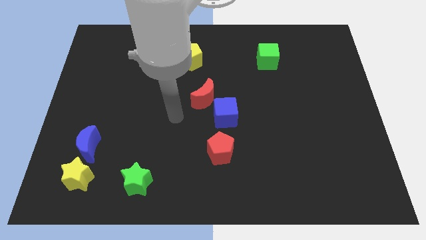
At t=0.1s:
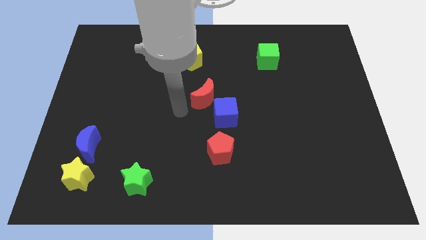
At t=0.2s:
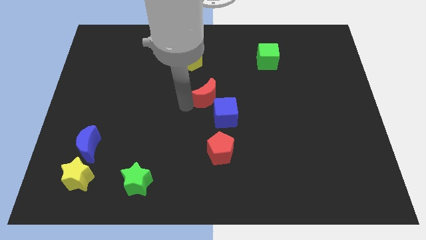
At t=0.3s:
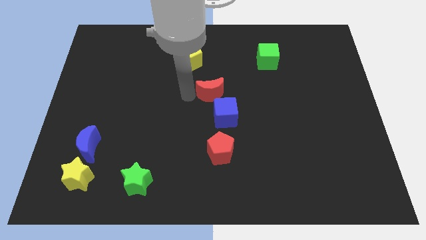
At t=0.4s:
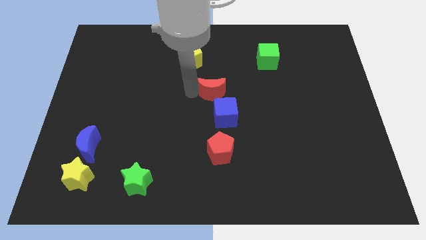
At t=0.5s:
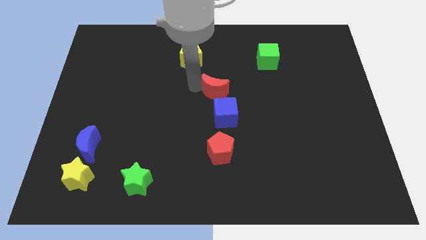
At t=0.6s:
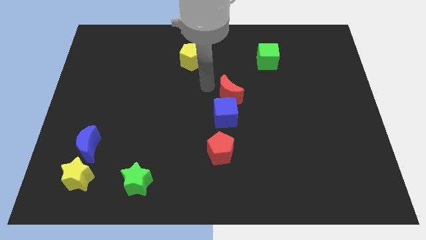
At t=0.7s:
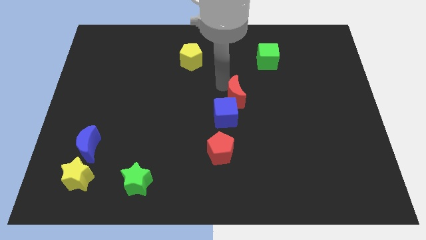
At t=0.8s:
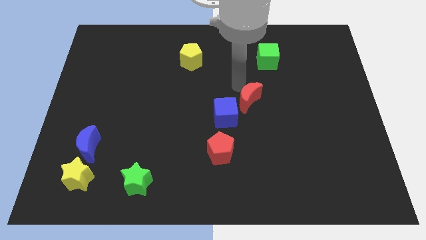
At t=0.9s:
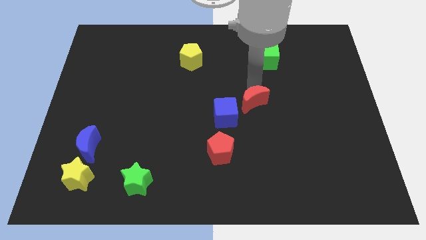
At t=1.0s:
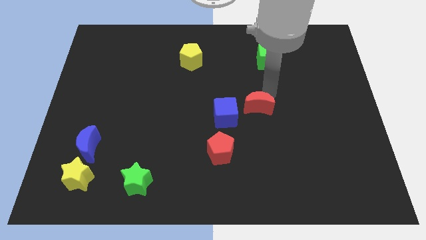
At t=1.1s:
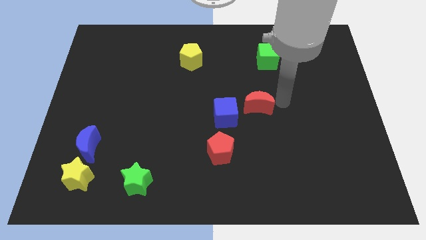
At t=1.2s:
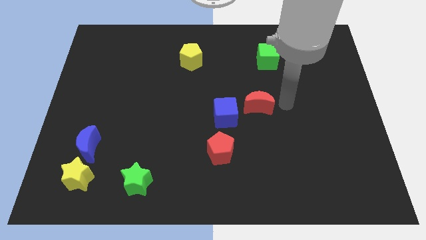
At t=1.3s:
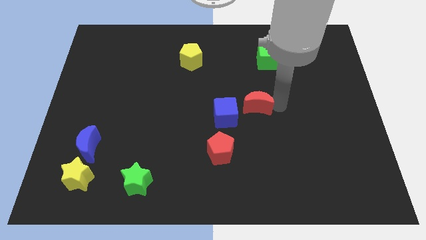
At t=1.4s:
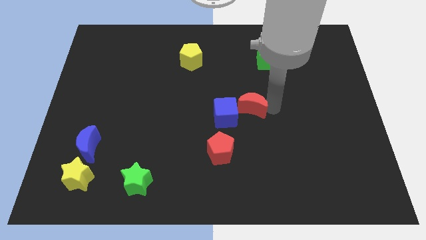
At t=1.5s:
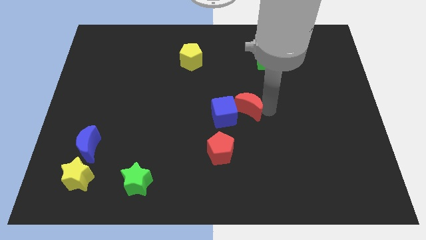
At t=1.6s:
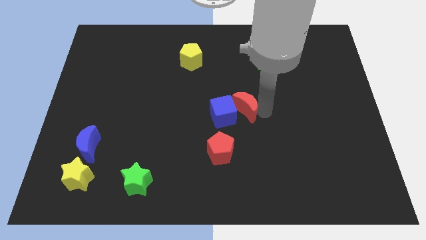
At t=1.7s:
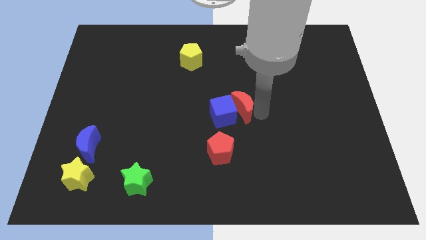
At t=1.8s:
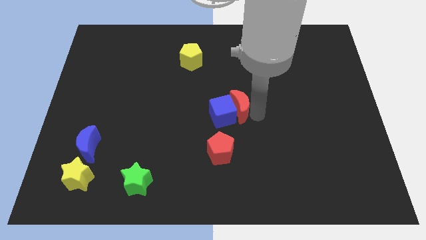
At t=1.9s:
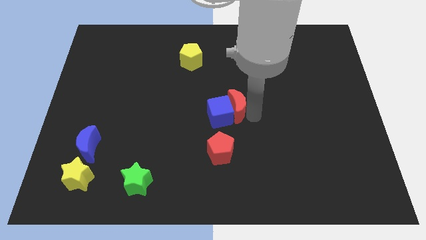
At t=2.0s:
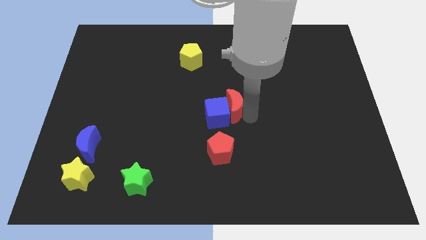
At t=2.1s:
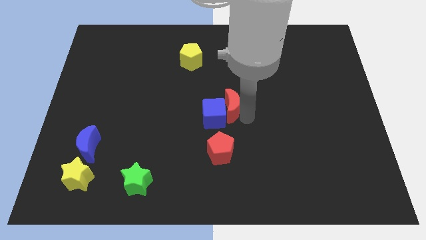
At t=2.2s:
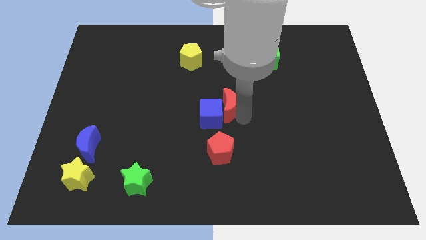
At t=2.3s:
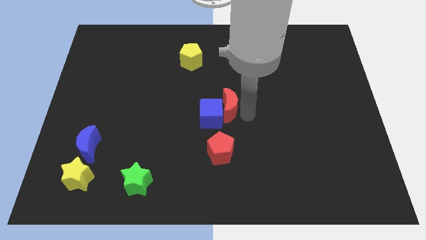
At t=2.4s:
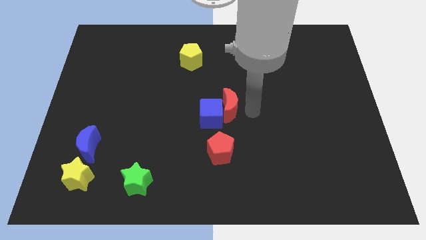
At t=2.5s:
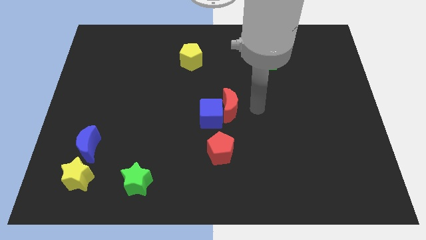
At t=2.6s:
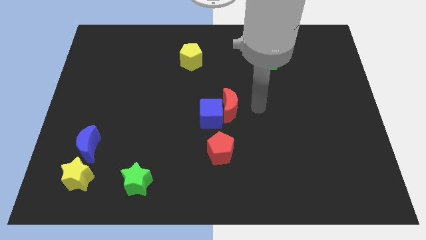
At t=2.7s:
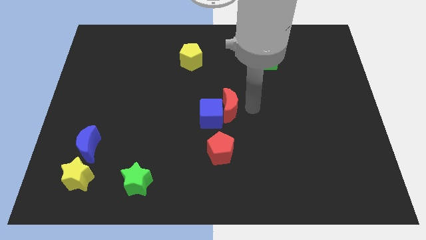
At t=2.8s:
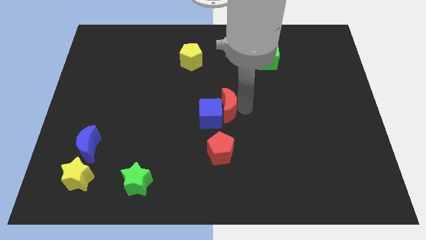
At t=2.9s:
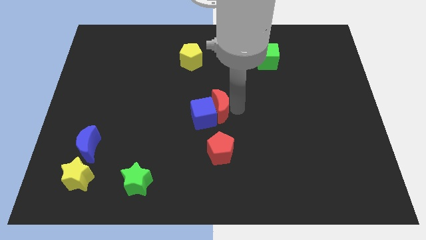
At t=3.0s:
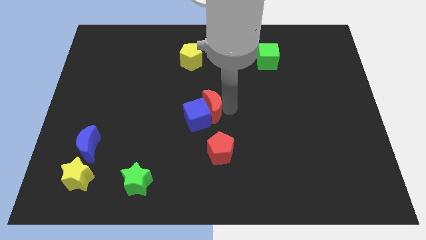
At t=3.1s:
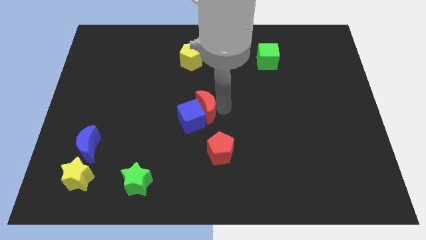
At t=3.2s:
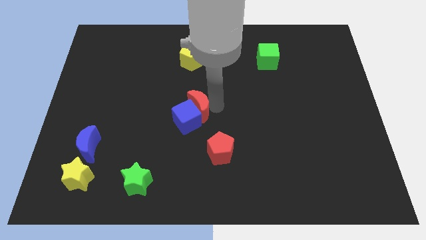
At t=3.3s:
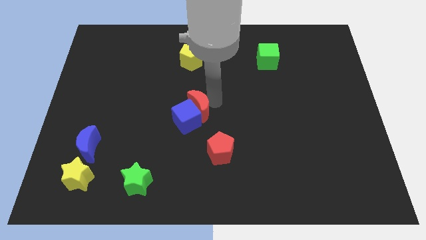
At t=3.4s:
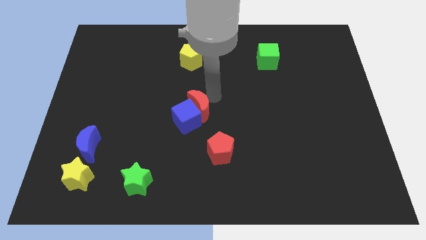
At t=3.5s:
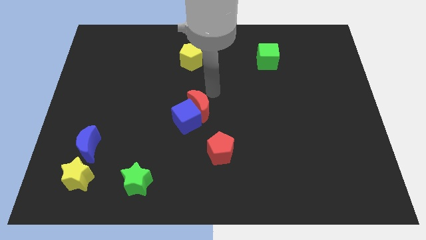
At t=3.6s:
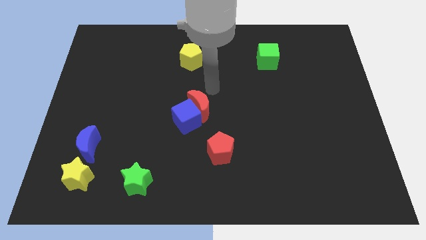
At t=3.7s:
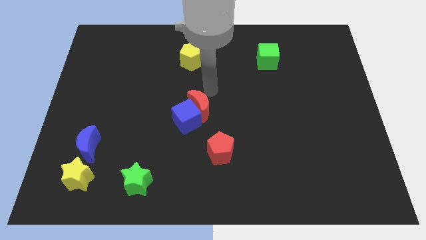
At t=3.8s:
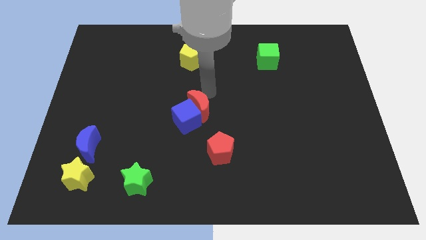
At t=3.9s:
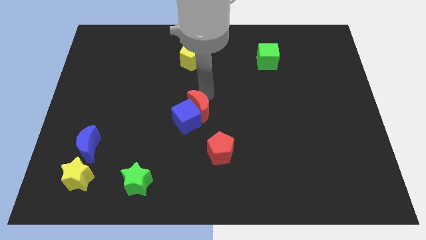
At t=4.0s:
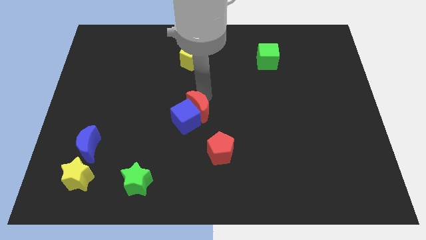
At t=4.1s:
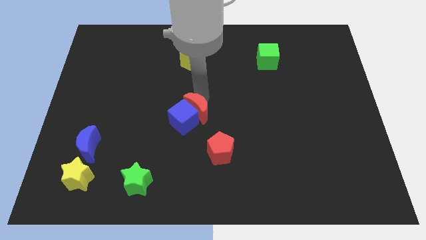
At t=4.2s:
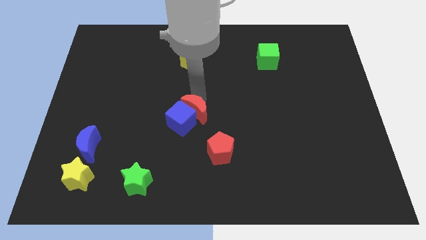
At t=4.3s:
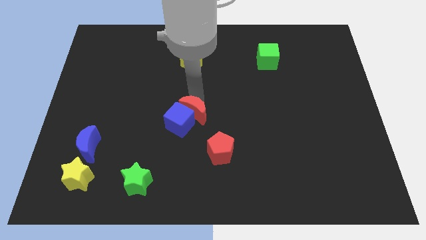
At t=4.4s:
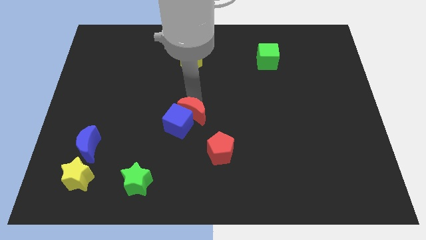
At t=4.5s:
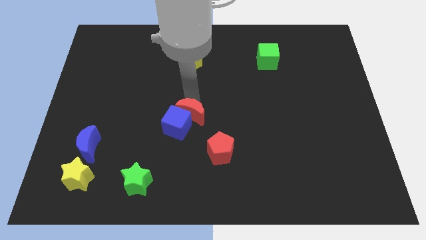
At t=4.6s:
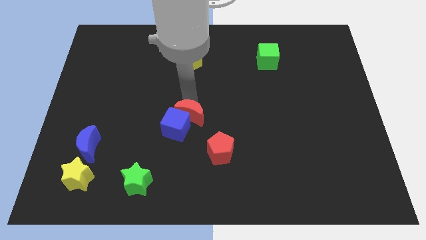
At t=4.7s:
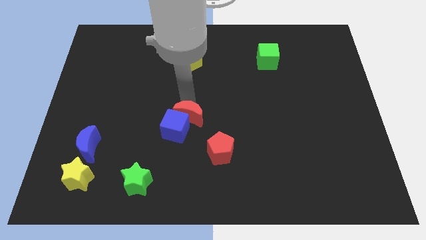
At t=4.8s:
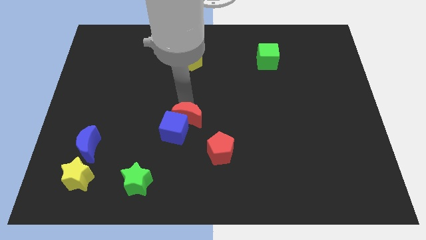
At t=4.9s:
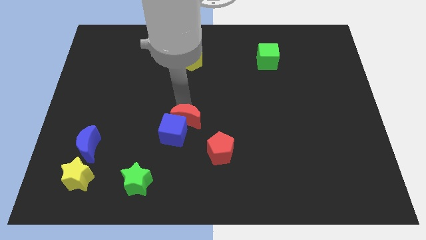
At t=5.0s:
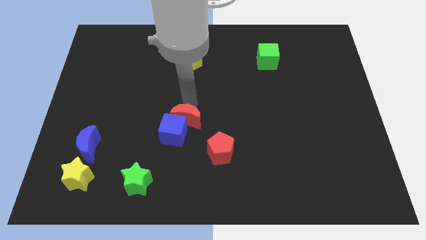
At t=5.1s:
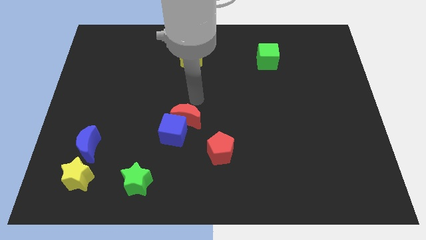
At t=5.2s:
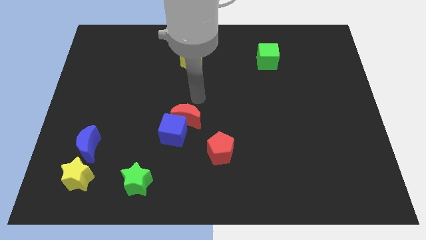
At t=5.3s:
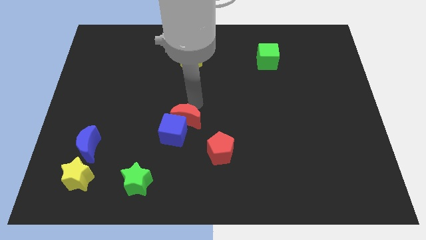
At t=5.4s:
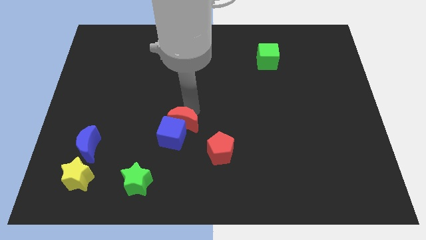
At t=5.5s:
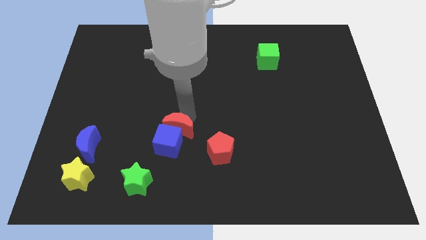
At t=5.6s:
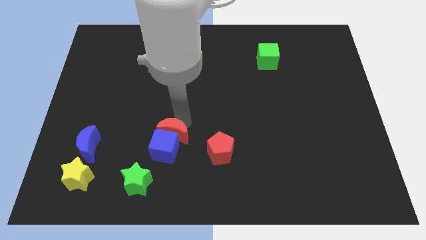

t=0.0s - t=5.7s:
move the red moon left of the red pentagon

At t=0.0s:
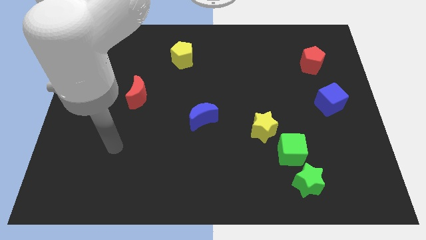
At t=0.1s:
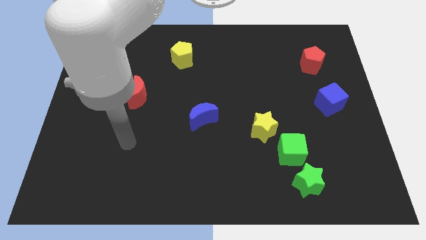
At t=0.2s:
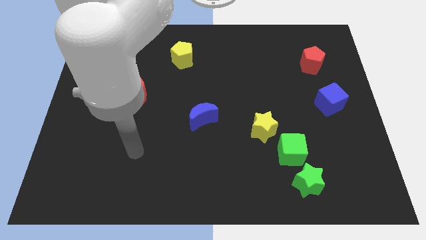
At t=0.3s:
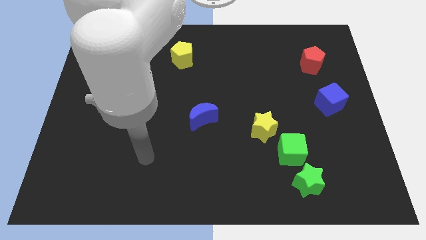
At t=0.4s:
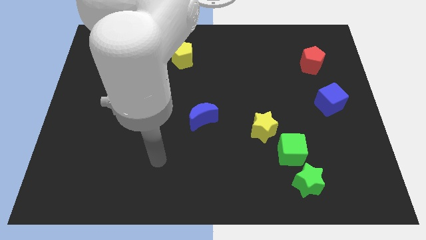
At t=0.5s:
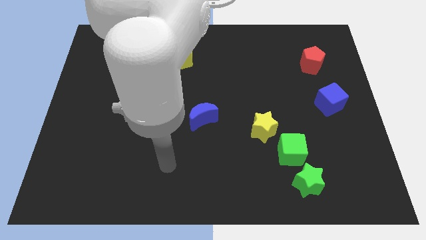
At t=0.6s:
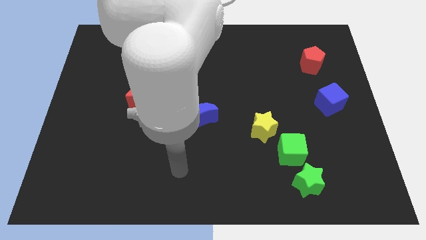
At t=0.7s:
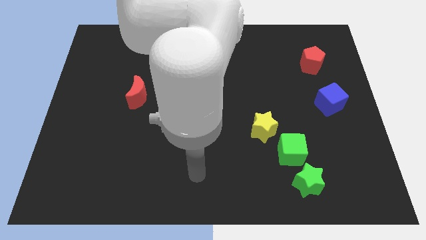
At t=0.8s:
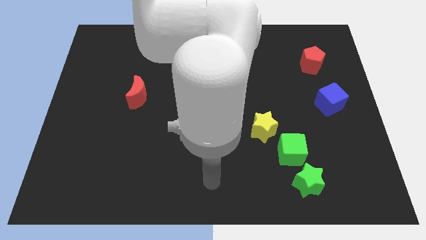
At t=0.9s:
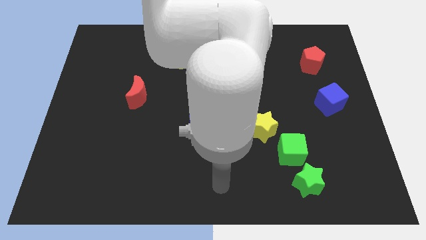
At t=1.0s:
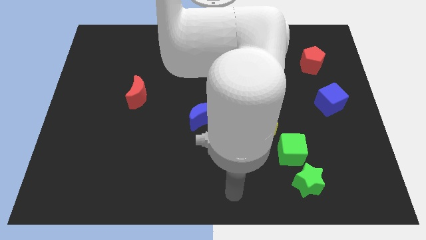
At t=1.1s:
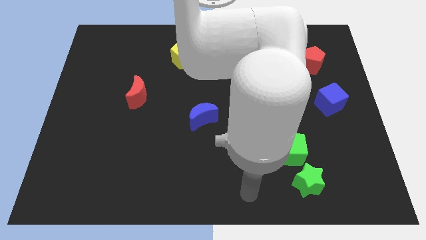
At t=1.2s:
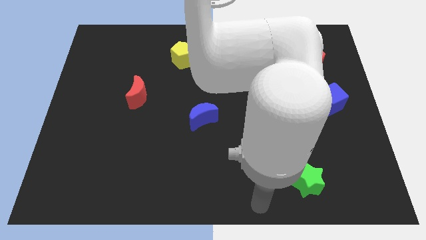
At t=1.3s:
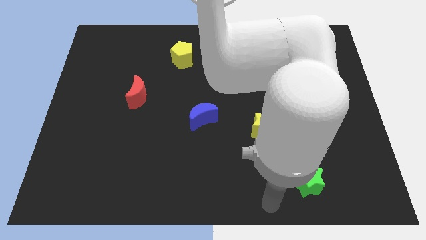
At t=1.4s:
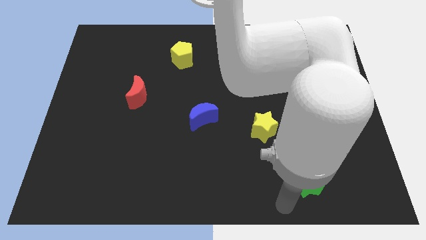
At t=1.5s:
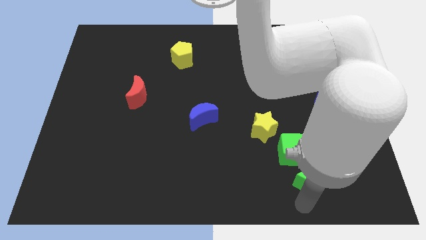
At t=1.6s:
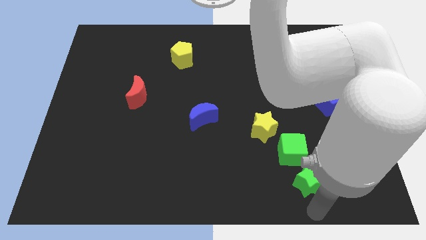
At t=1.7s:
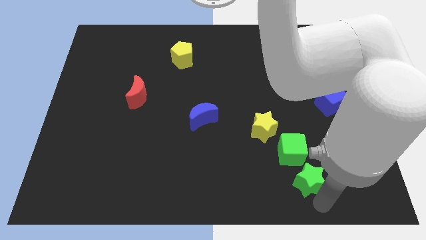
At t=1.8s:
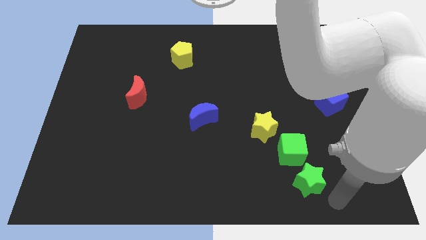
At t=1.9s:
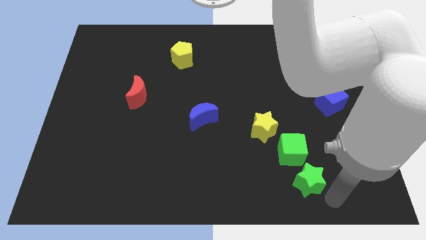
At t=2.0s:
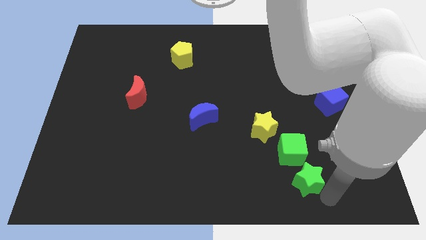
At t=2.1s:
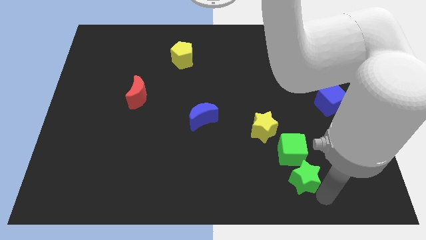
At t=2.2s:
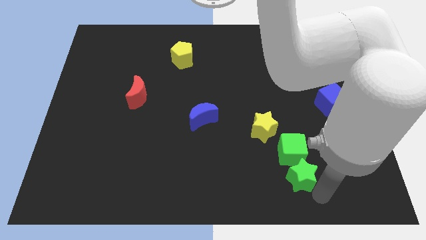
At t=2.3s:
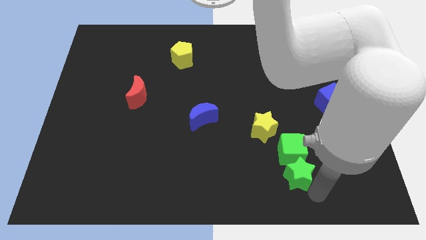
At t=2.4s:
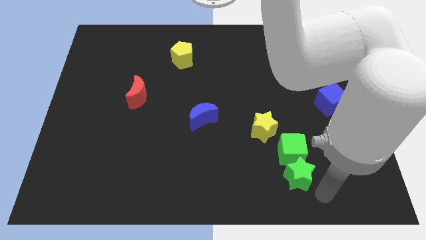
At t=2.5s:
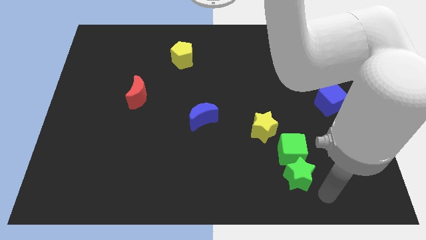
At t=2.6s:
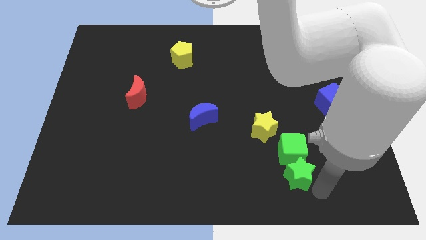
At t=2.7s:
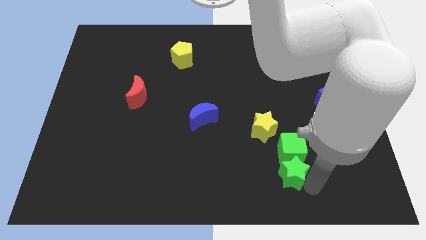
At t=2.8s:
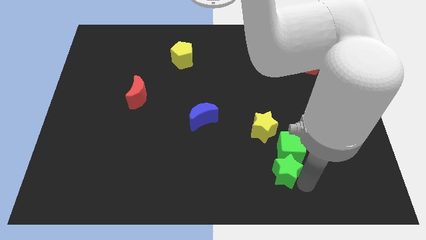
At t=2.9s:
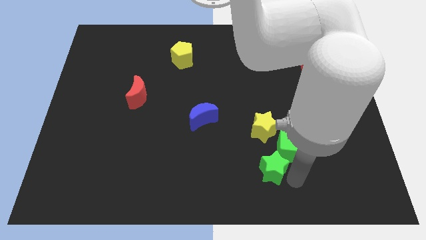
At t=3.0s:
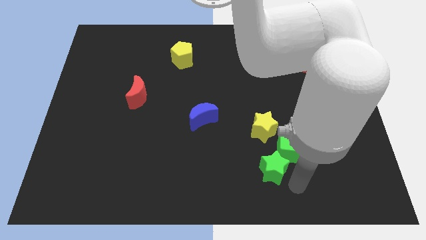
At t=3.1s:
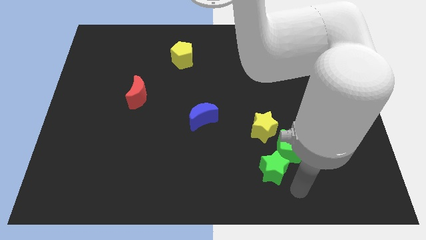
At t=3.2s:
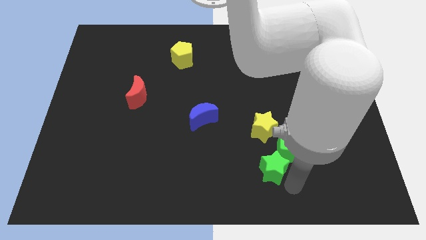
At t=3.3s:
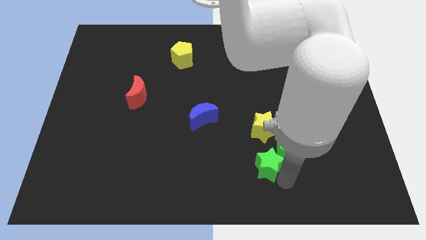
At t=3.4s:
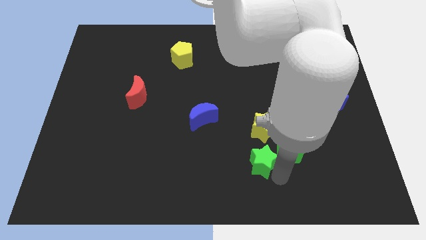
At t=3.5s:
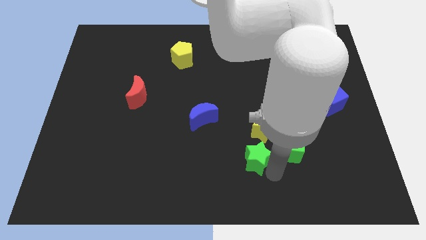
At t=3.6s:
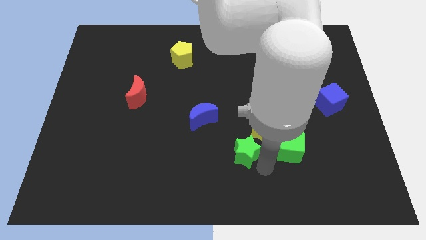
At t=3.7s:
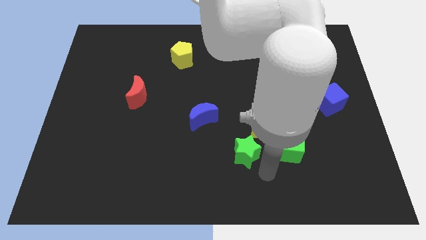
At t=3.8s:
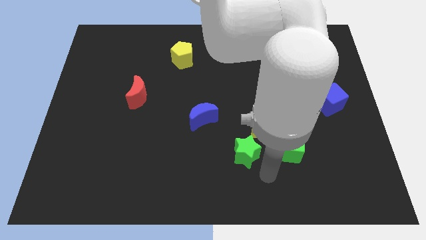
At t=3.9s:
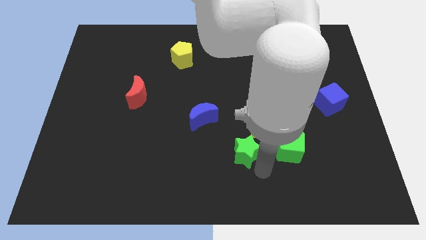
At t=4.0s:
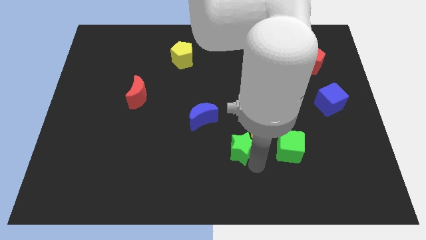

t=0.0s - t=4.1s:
move the green star diagonally down and to the right of the blue moon
